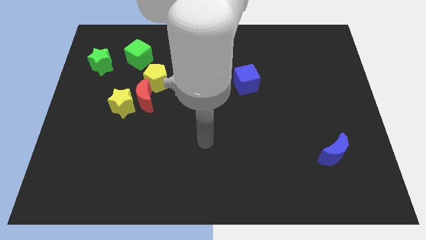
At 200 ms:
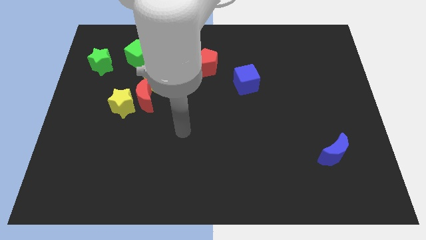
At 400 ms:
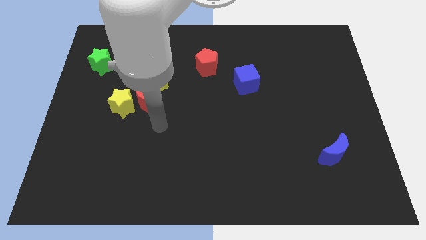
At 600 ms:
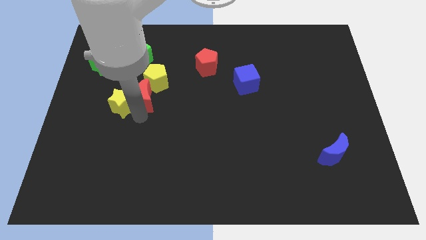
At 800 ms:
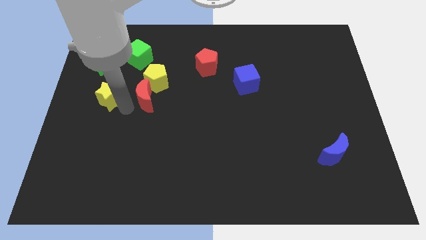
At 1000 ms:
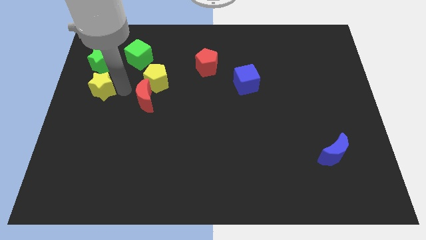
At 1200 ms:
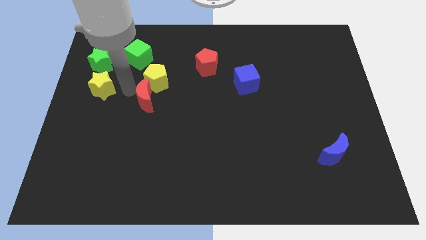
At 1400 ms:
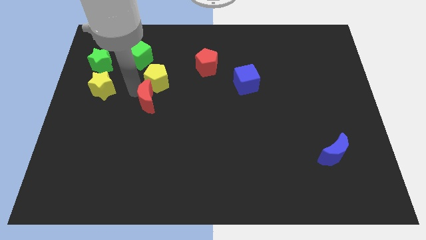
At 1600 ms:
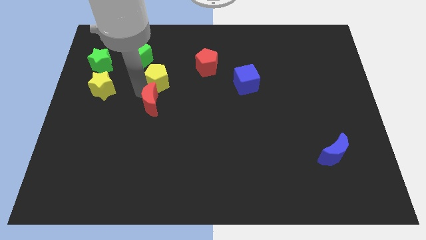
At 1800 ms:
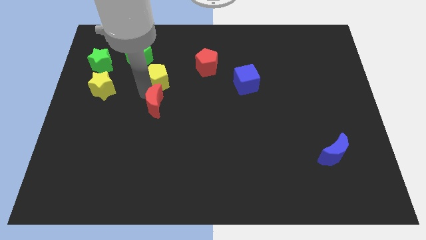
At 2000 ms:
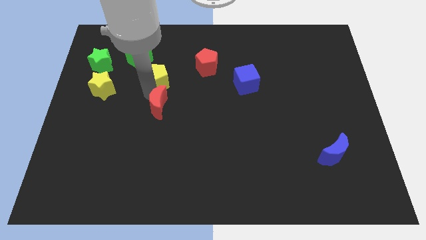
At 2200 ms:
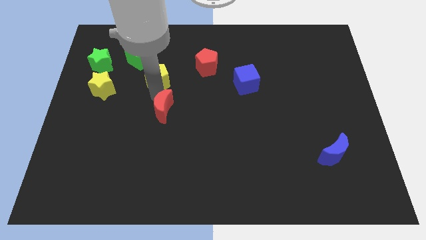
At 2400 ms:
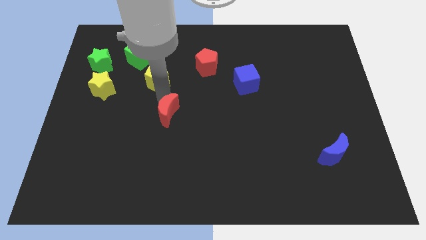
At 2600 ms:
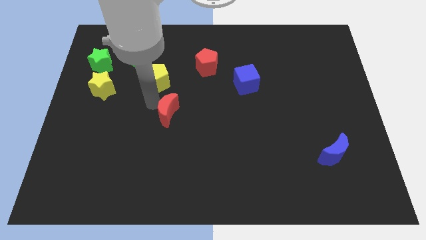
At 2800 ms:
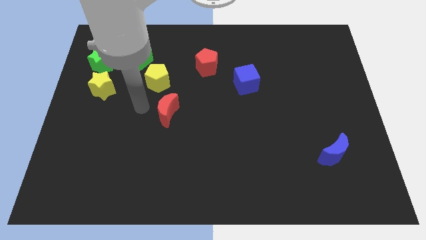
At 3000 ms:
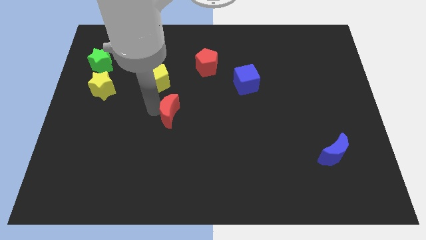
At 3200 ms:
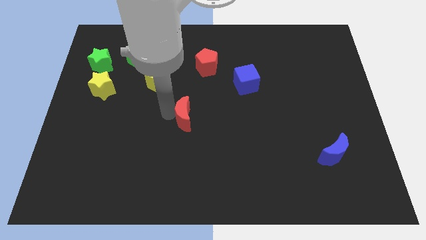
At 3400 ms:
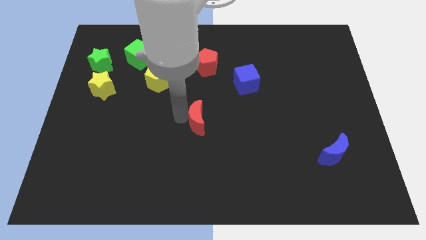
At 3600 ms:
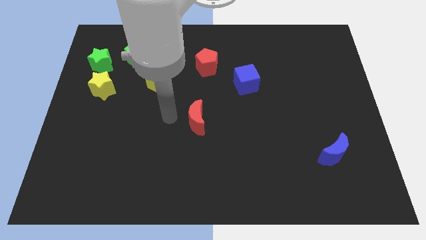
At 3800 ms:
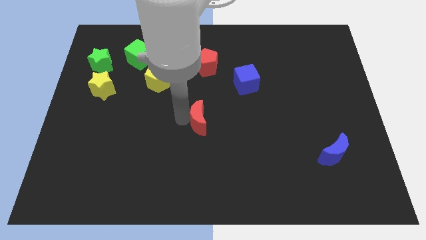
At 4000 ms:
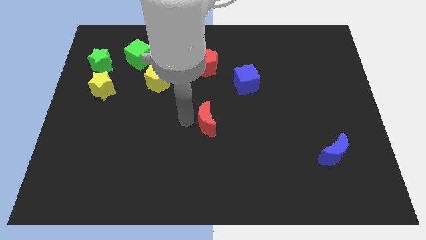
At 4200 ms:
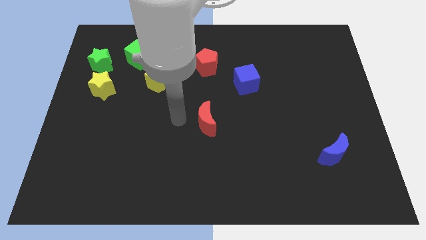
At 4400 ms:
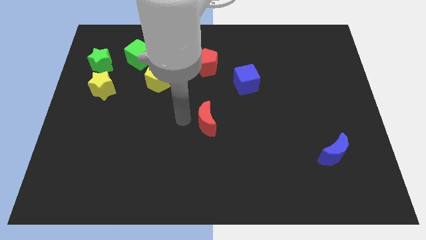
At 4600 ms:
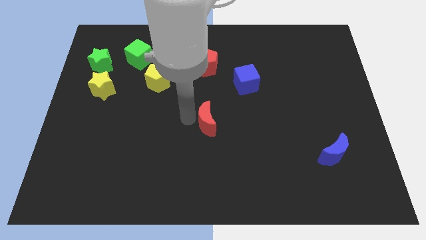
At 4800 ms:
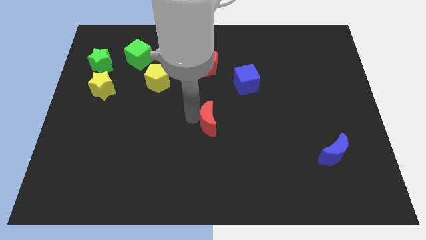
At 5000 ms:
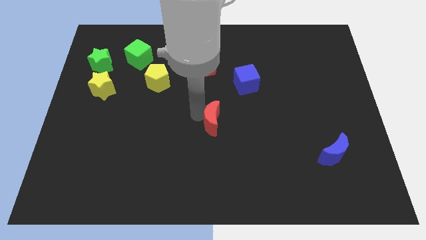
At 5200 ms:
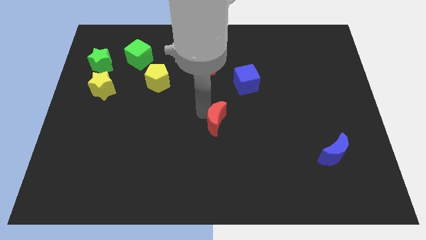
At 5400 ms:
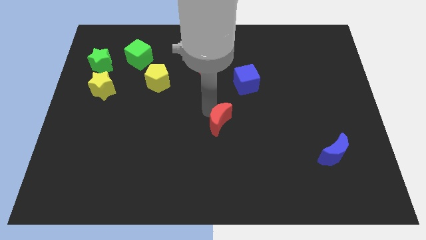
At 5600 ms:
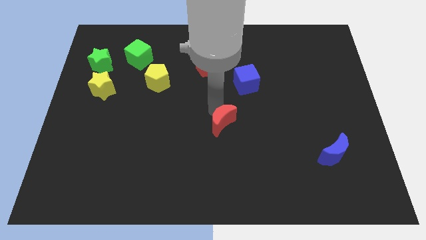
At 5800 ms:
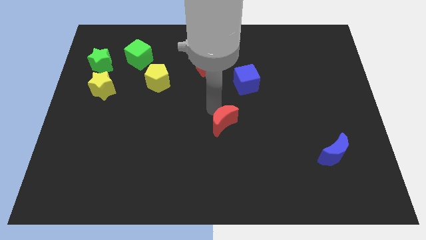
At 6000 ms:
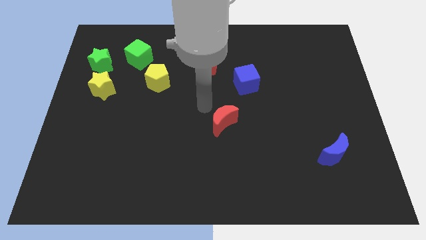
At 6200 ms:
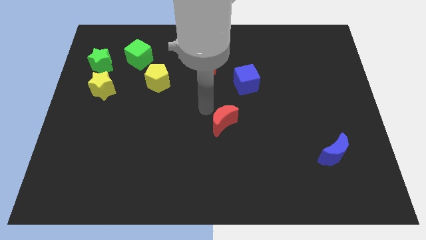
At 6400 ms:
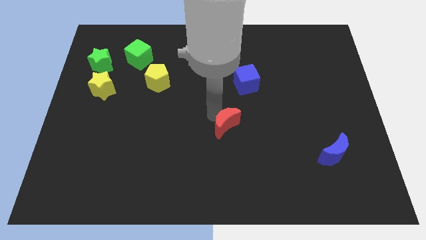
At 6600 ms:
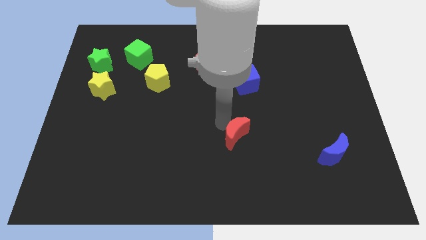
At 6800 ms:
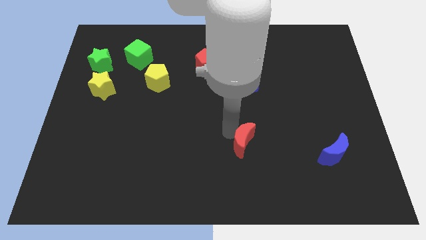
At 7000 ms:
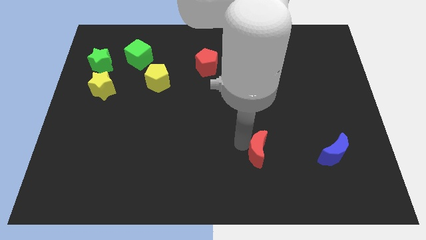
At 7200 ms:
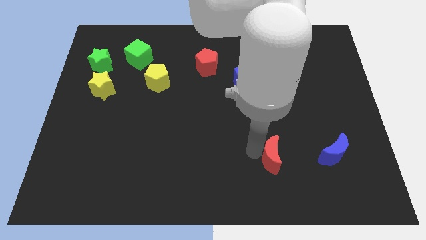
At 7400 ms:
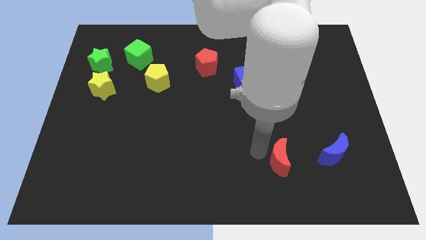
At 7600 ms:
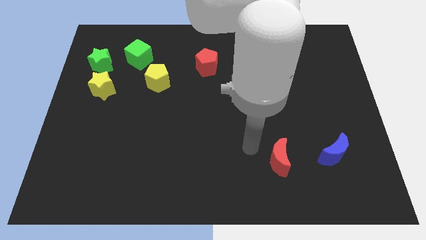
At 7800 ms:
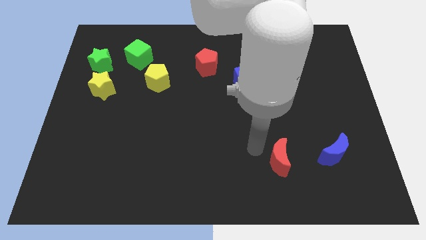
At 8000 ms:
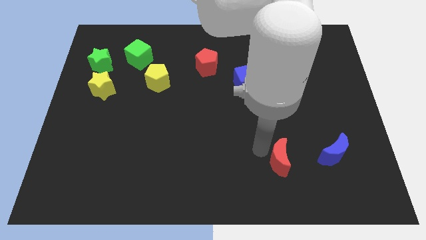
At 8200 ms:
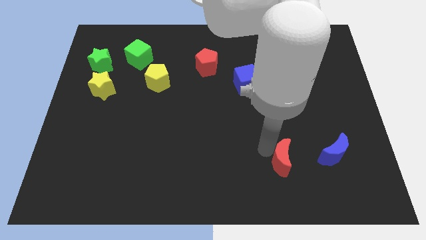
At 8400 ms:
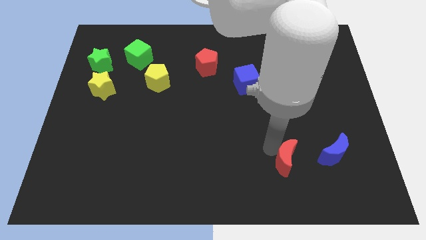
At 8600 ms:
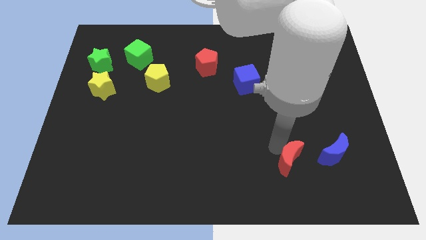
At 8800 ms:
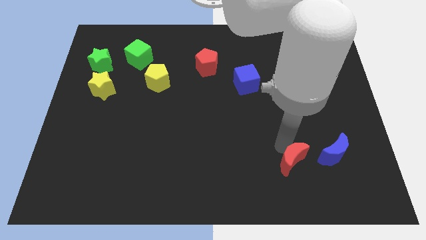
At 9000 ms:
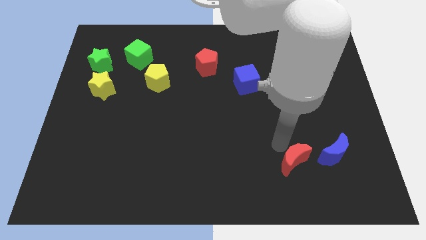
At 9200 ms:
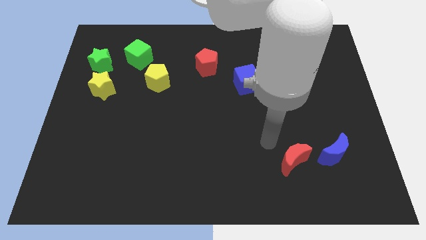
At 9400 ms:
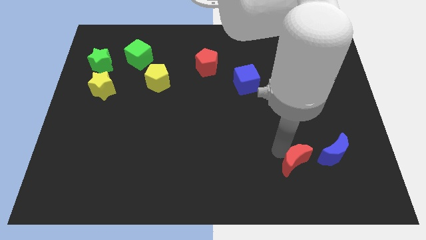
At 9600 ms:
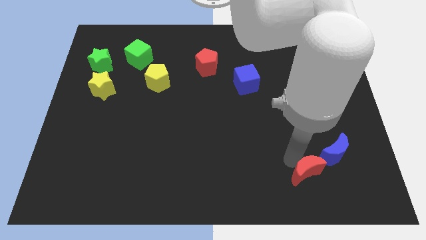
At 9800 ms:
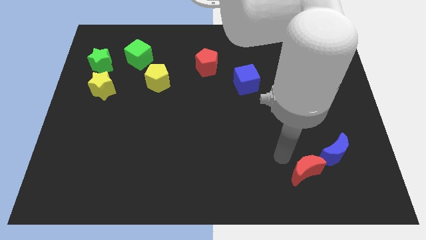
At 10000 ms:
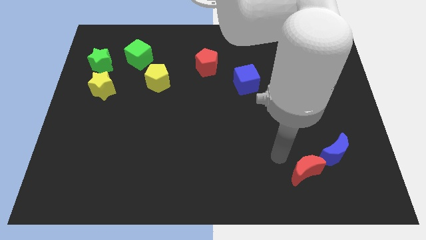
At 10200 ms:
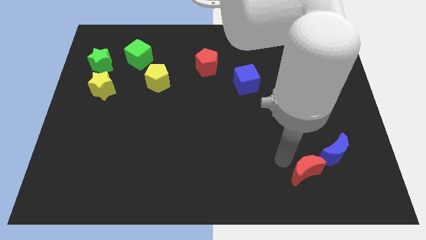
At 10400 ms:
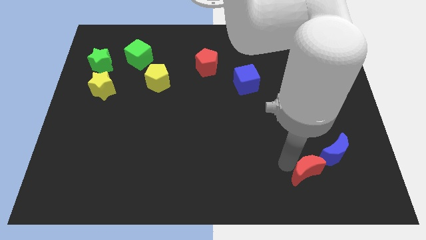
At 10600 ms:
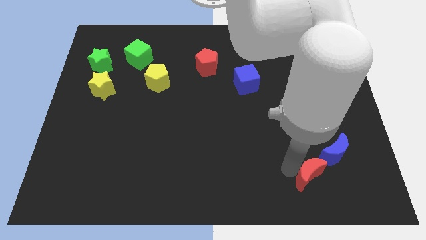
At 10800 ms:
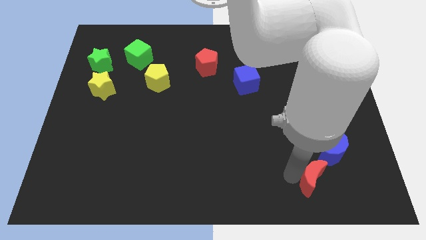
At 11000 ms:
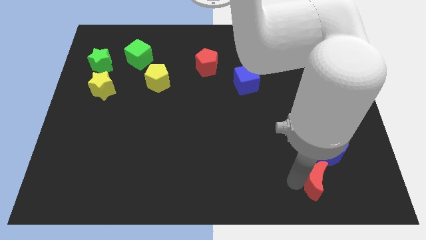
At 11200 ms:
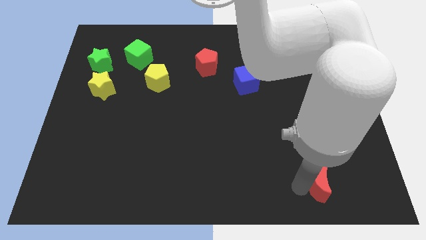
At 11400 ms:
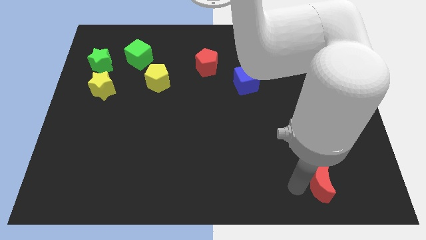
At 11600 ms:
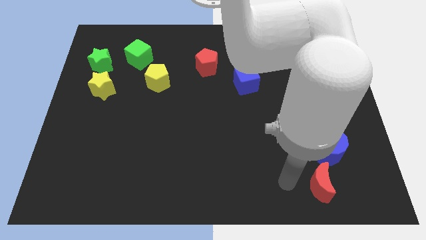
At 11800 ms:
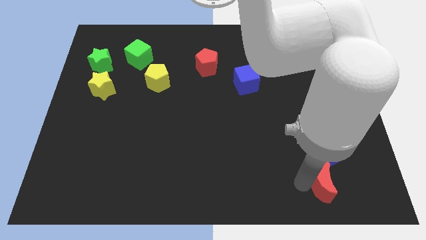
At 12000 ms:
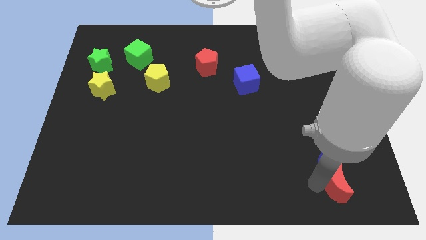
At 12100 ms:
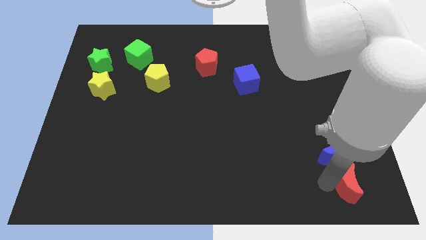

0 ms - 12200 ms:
slide the red moon to the lower right corner
